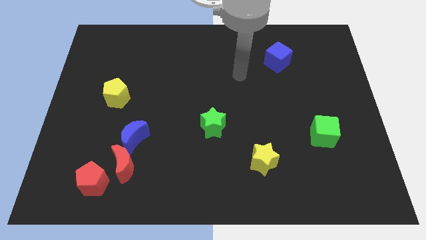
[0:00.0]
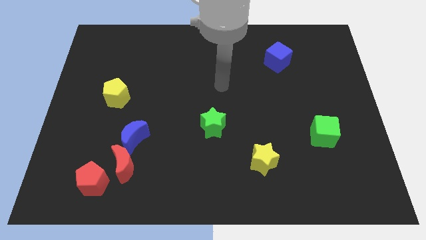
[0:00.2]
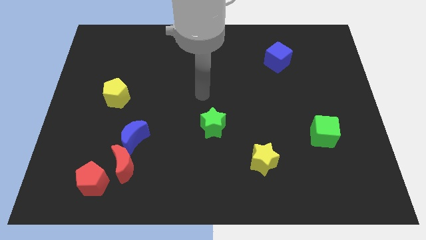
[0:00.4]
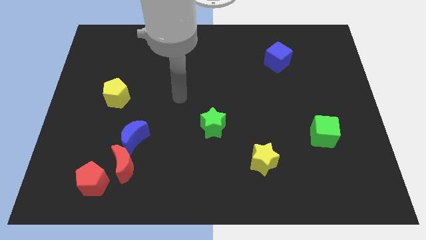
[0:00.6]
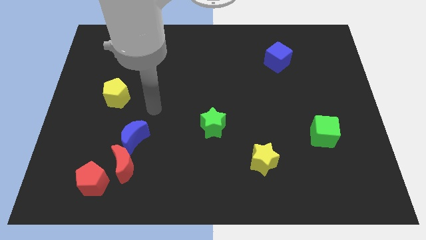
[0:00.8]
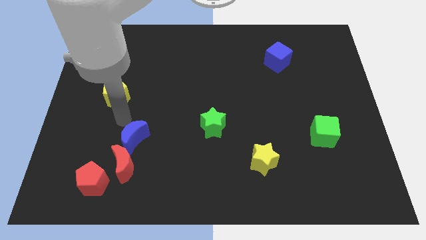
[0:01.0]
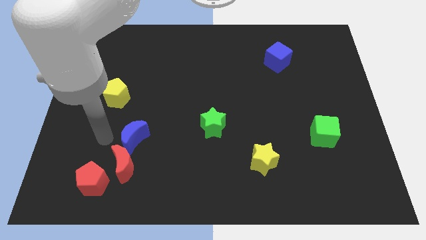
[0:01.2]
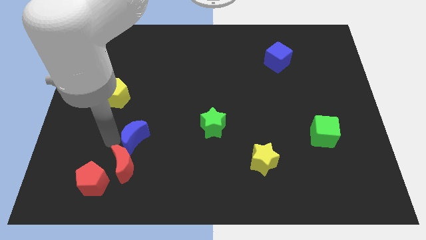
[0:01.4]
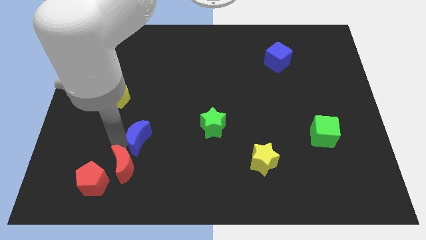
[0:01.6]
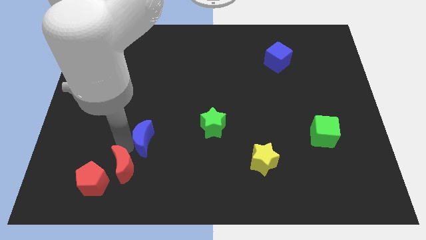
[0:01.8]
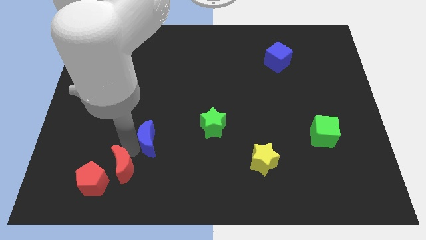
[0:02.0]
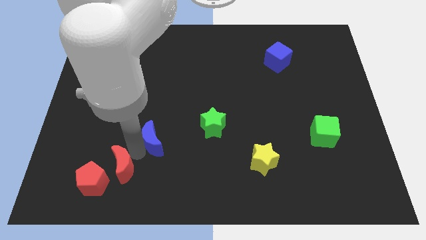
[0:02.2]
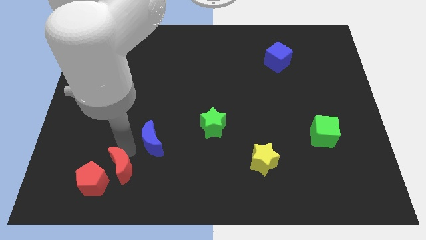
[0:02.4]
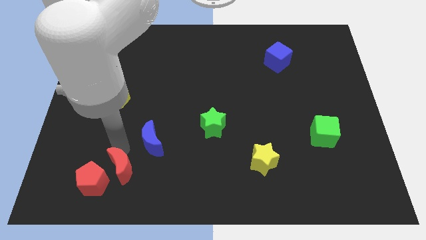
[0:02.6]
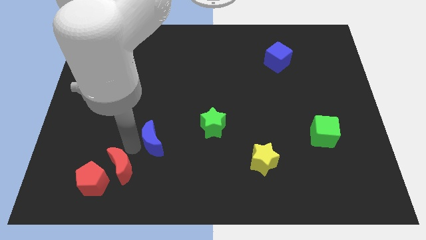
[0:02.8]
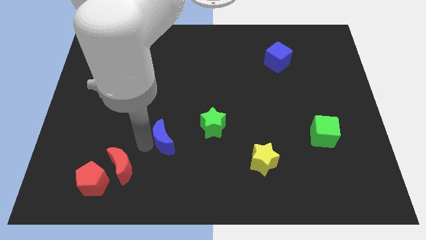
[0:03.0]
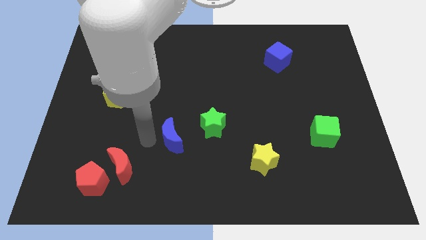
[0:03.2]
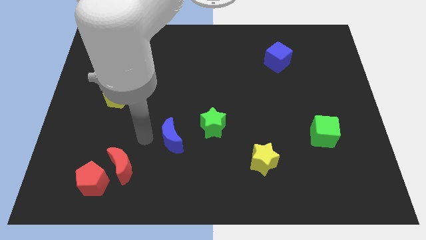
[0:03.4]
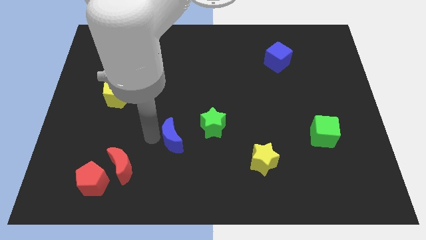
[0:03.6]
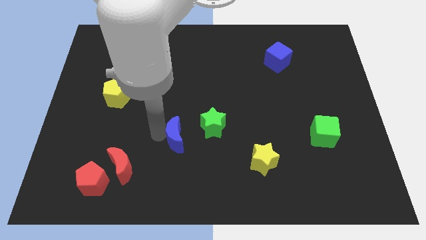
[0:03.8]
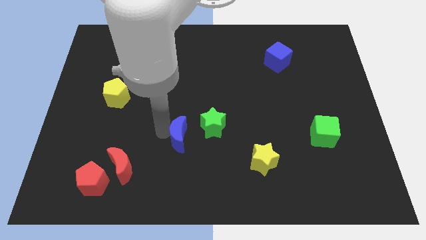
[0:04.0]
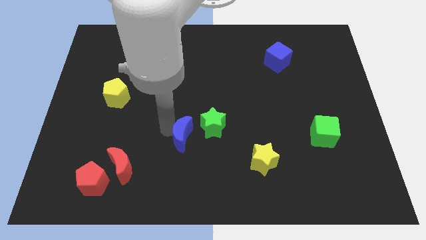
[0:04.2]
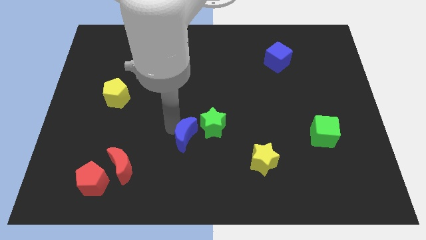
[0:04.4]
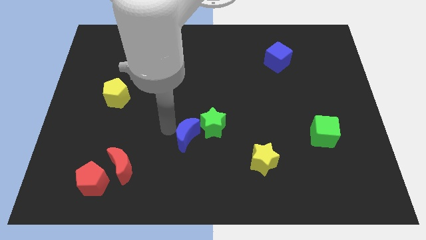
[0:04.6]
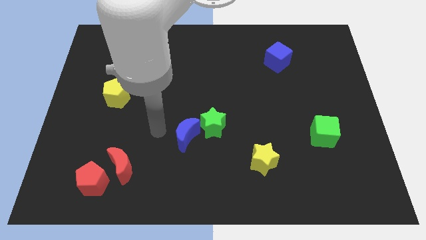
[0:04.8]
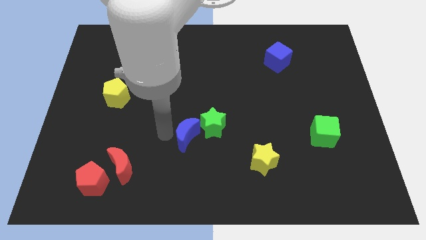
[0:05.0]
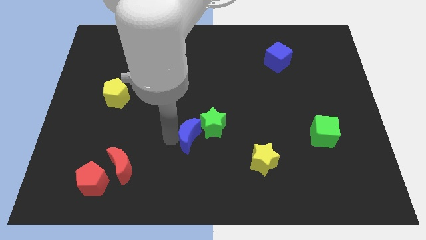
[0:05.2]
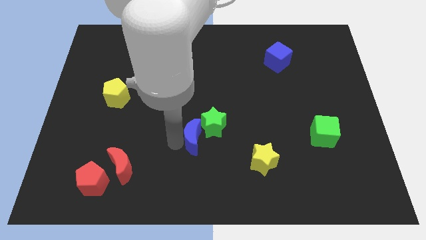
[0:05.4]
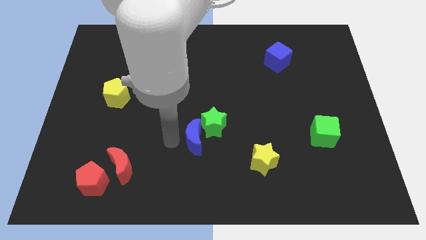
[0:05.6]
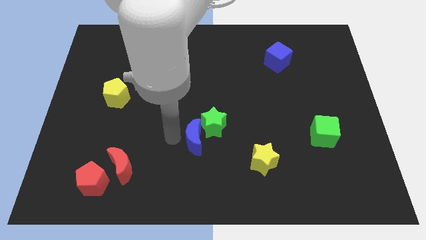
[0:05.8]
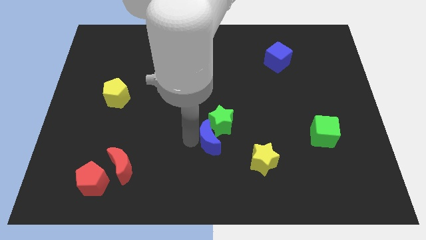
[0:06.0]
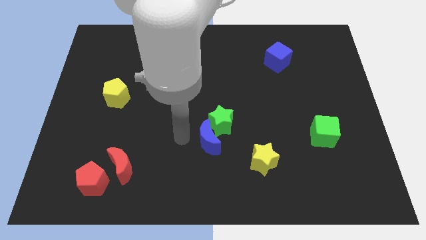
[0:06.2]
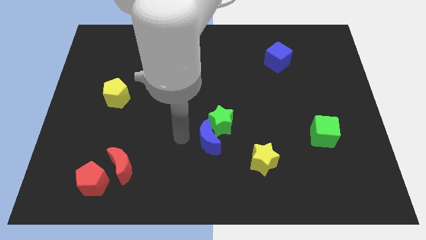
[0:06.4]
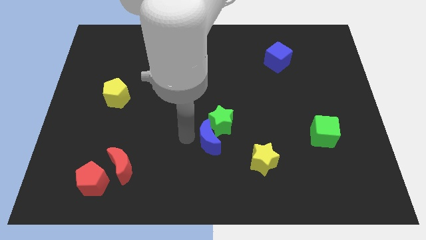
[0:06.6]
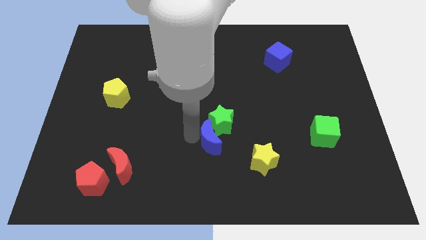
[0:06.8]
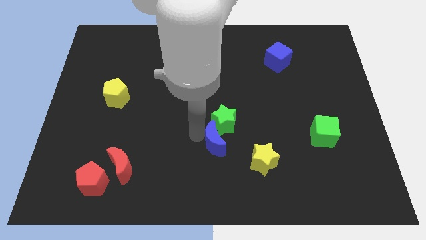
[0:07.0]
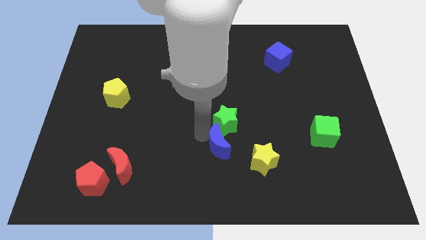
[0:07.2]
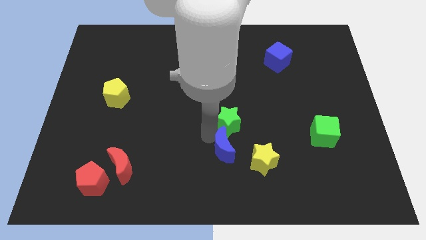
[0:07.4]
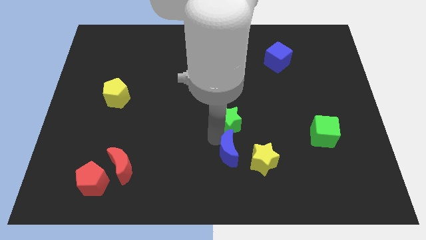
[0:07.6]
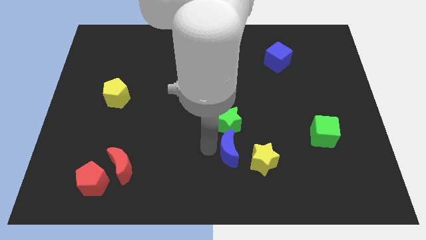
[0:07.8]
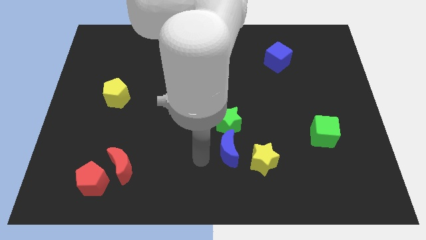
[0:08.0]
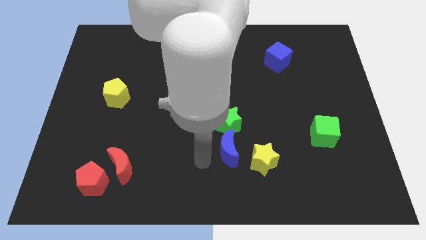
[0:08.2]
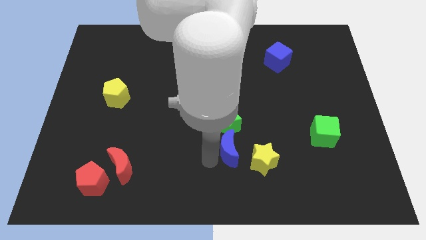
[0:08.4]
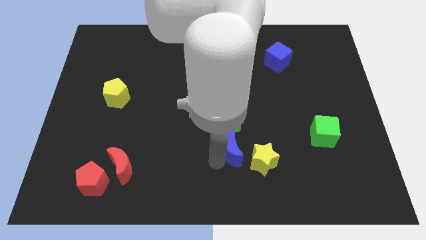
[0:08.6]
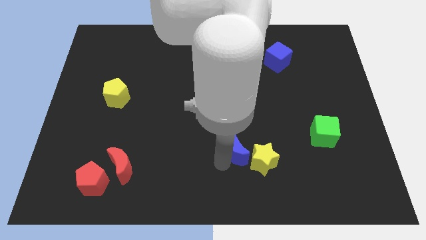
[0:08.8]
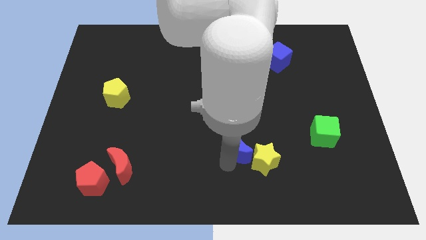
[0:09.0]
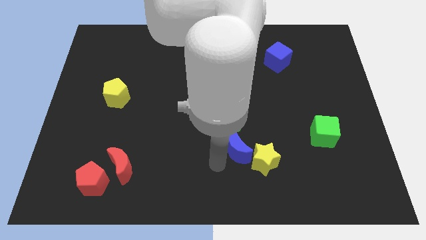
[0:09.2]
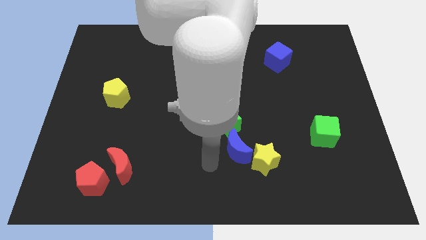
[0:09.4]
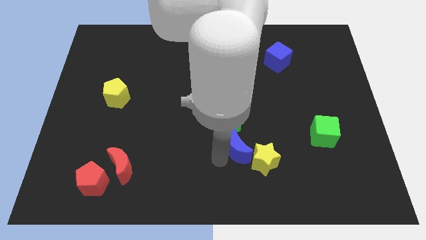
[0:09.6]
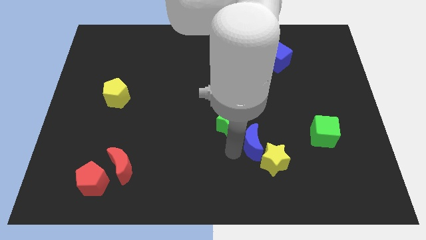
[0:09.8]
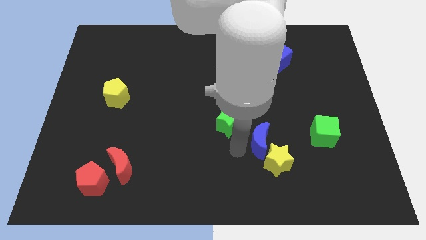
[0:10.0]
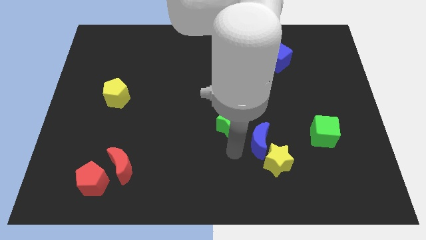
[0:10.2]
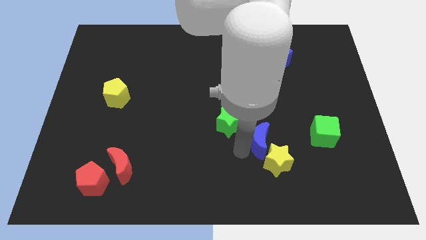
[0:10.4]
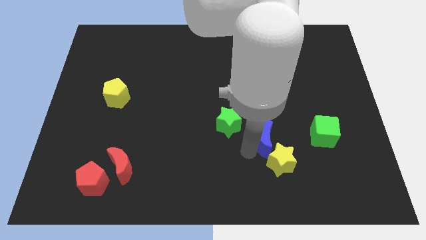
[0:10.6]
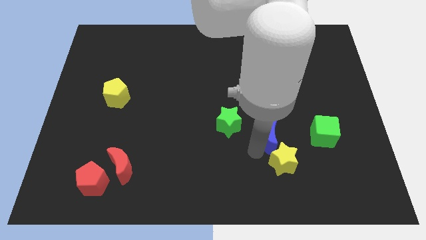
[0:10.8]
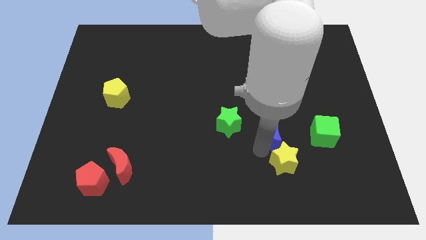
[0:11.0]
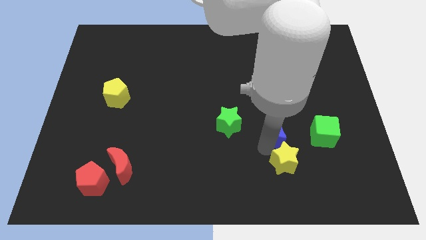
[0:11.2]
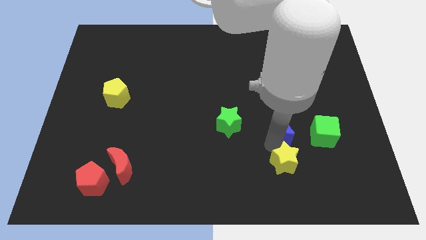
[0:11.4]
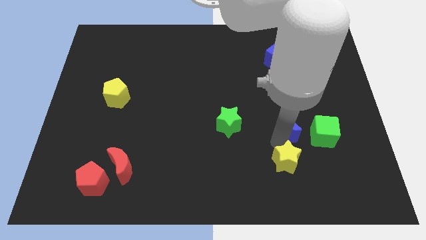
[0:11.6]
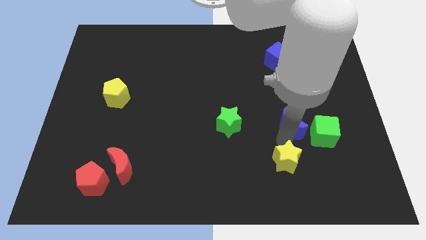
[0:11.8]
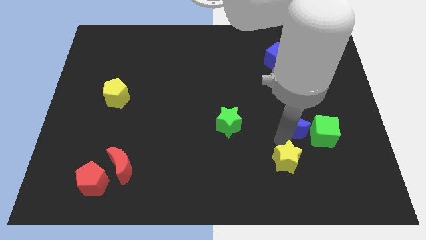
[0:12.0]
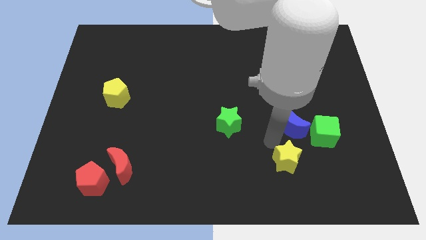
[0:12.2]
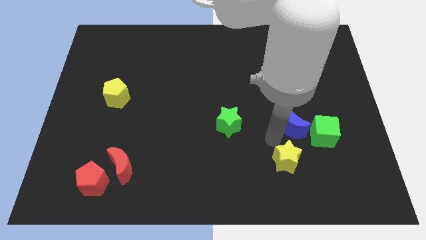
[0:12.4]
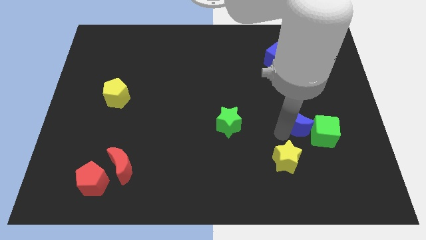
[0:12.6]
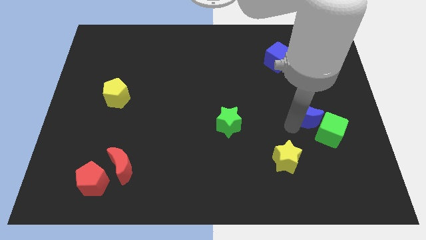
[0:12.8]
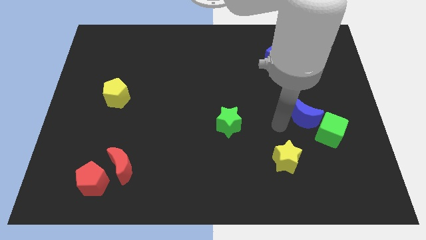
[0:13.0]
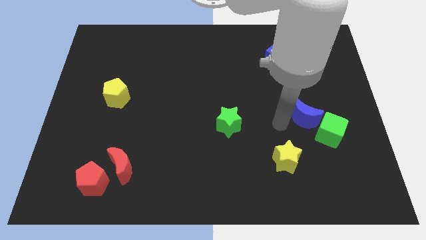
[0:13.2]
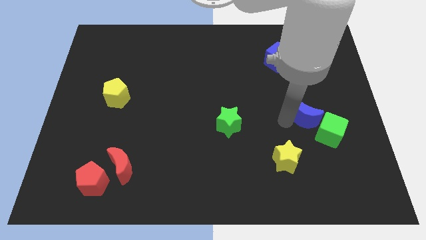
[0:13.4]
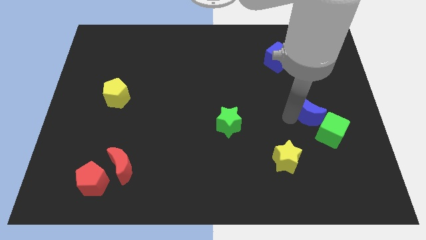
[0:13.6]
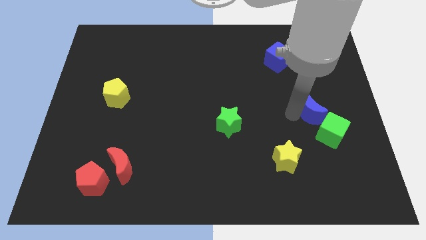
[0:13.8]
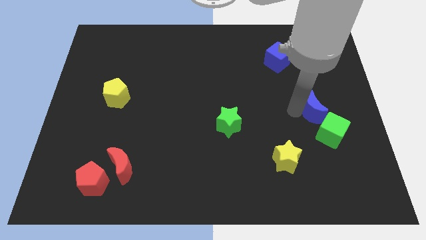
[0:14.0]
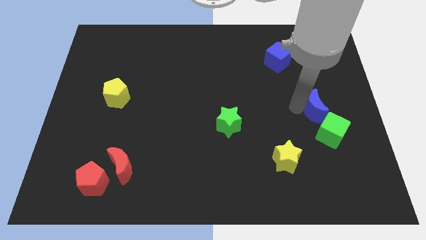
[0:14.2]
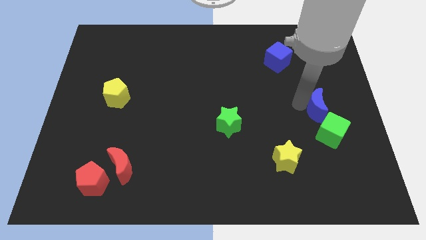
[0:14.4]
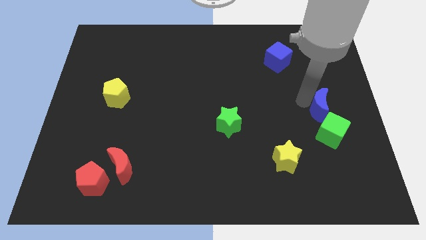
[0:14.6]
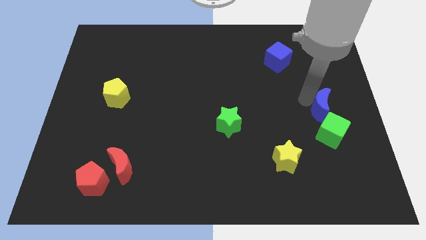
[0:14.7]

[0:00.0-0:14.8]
move the blue moon to the right side of the board
